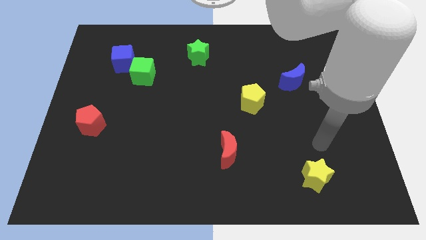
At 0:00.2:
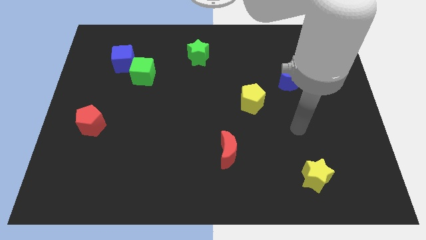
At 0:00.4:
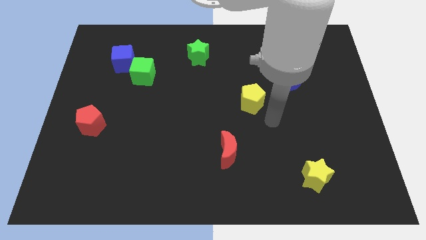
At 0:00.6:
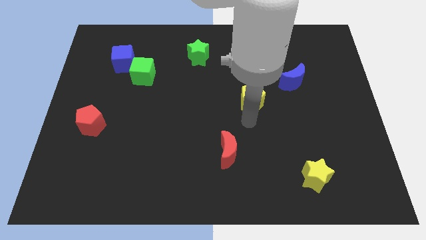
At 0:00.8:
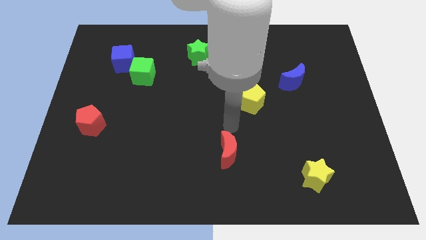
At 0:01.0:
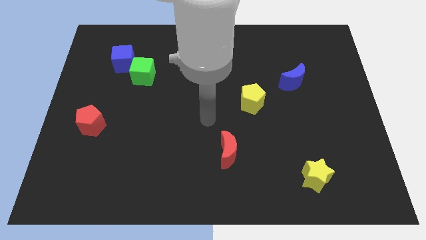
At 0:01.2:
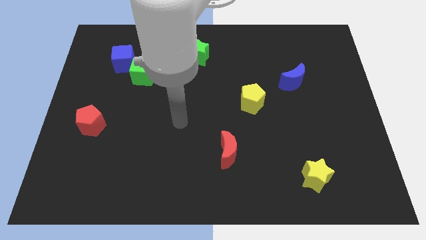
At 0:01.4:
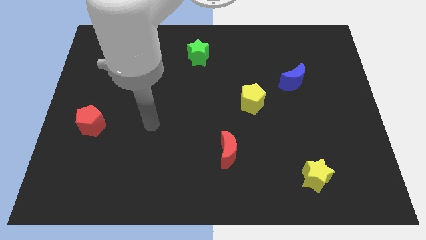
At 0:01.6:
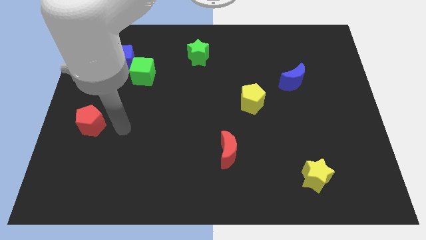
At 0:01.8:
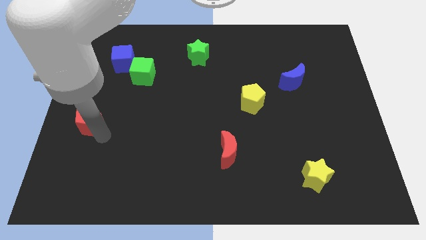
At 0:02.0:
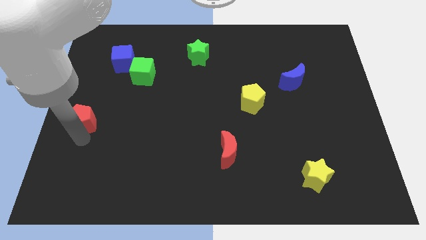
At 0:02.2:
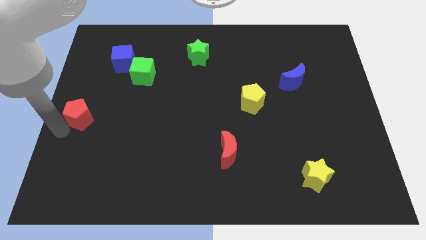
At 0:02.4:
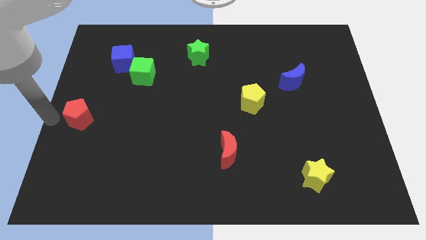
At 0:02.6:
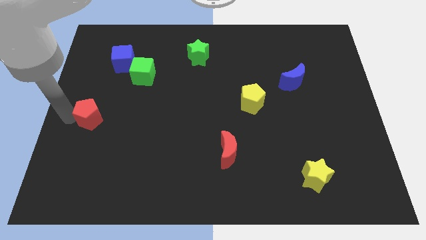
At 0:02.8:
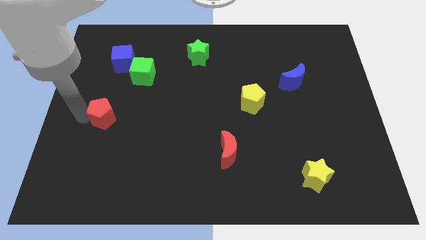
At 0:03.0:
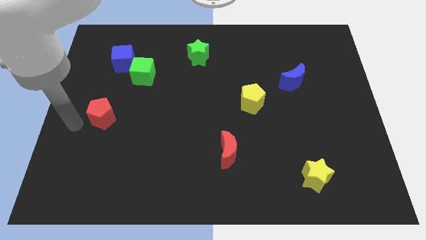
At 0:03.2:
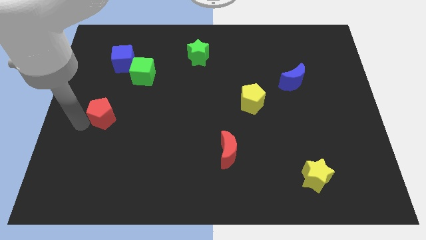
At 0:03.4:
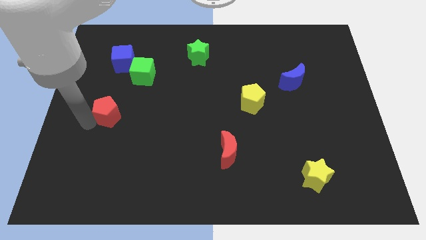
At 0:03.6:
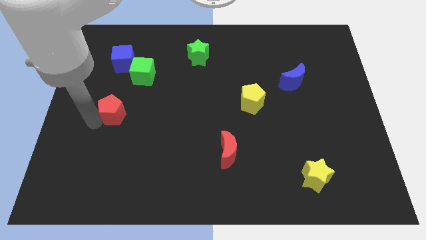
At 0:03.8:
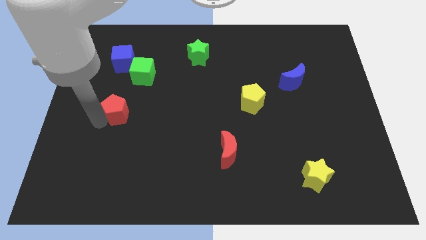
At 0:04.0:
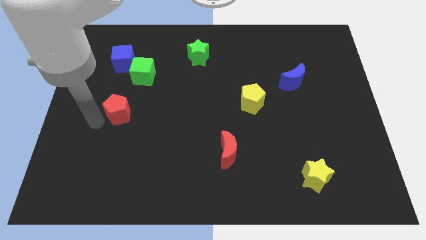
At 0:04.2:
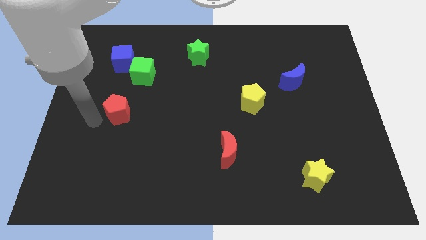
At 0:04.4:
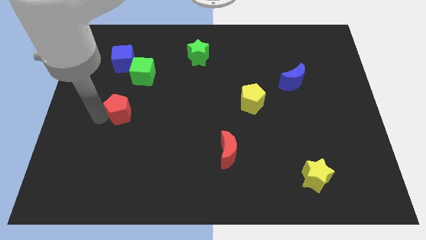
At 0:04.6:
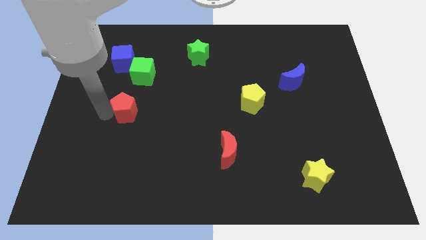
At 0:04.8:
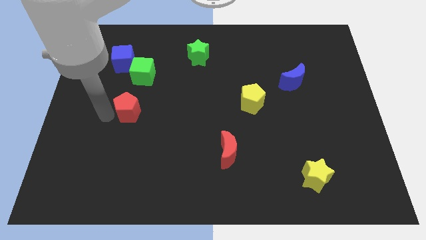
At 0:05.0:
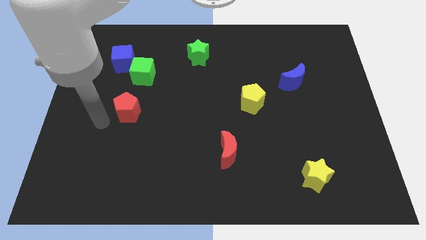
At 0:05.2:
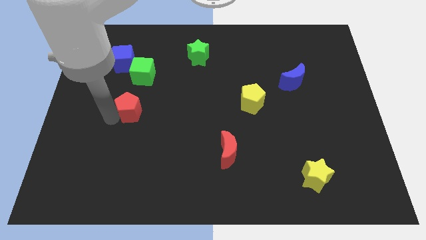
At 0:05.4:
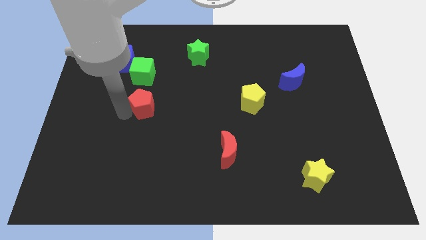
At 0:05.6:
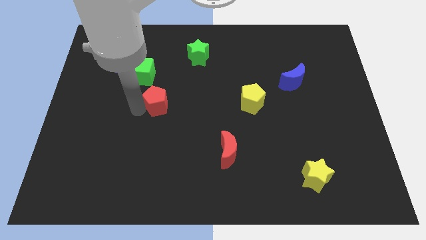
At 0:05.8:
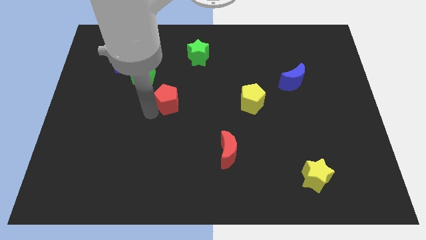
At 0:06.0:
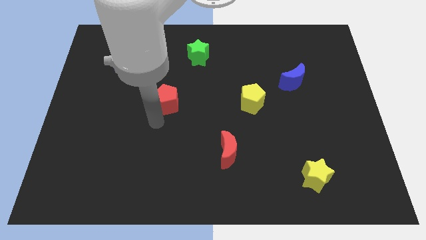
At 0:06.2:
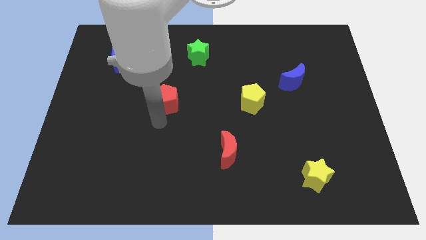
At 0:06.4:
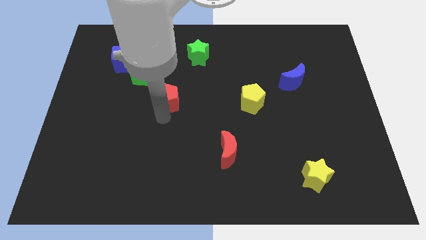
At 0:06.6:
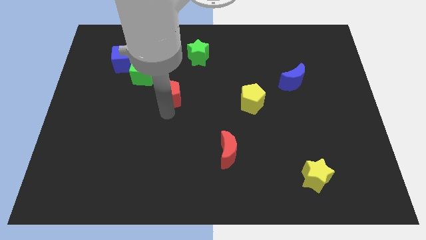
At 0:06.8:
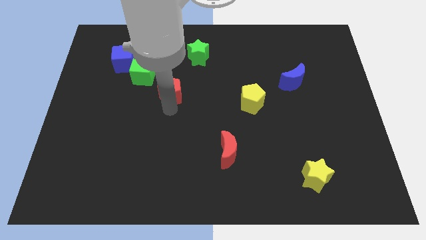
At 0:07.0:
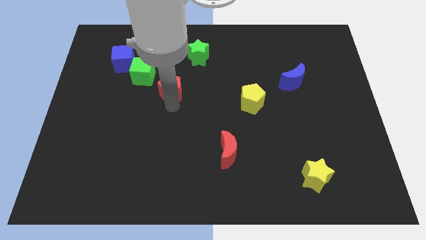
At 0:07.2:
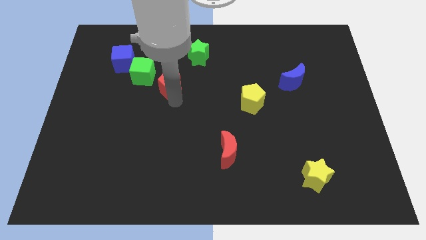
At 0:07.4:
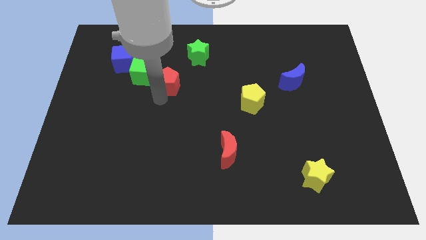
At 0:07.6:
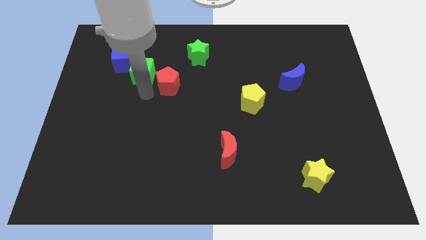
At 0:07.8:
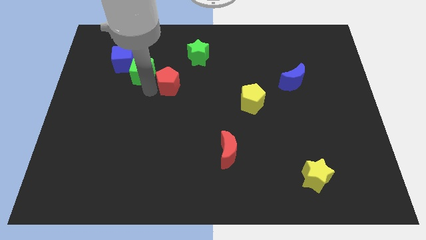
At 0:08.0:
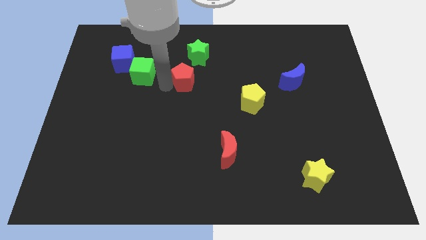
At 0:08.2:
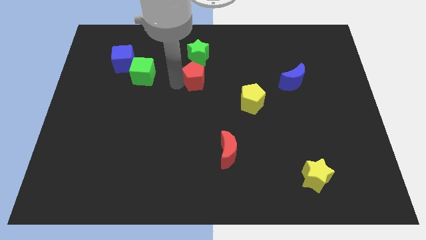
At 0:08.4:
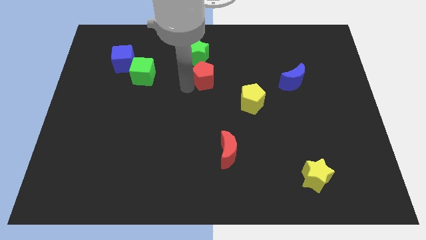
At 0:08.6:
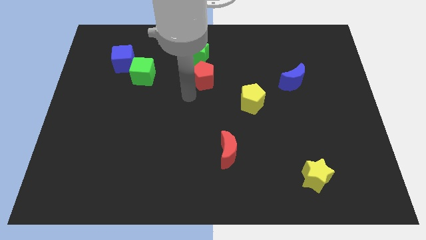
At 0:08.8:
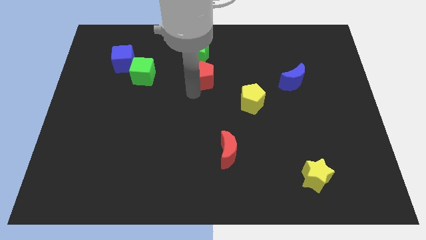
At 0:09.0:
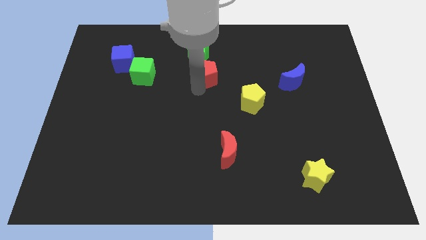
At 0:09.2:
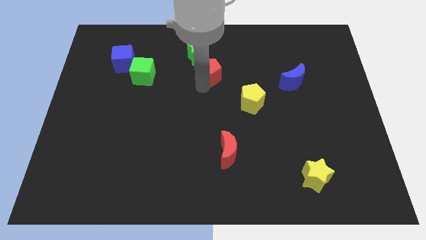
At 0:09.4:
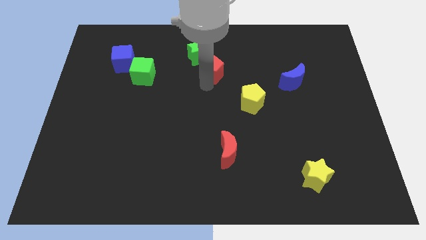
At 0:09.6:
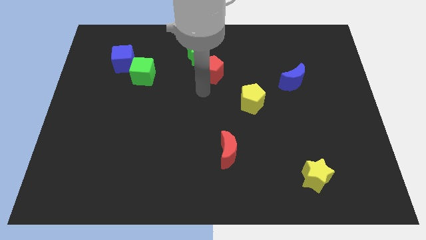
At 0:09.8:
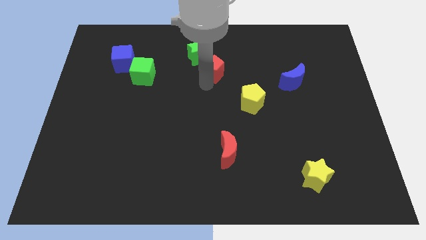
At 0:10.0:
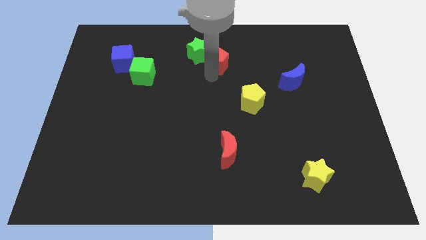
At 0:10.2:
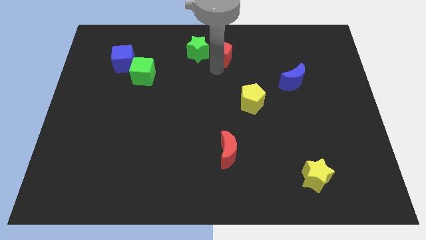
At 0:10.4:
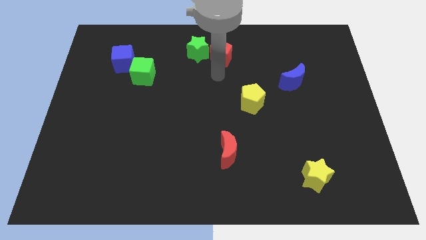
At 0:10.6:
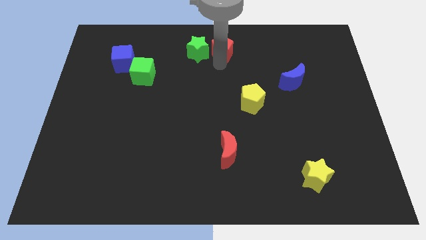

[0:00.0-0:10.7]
push the red pentagon to the top
